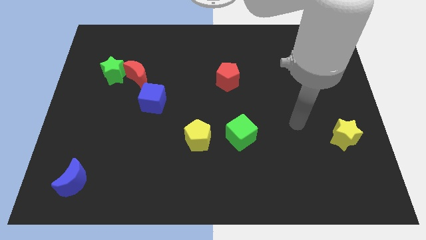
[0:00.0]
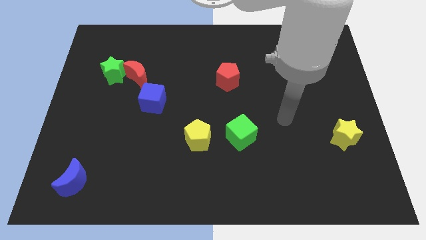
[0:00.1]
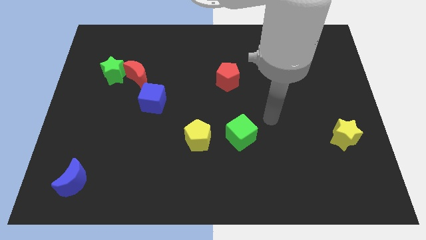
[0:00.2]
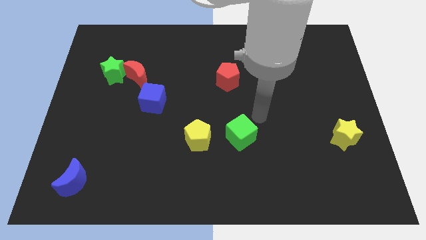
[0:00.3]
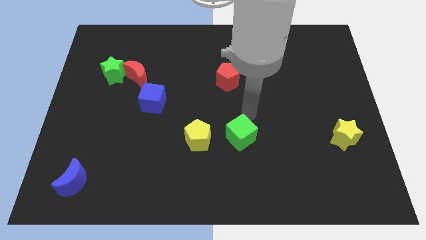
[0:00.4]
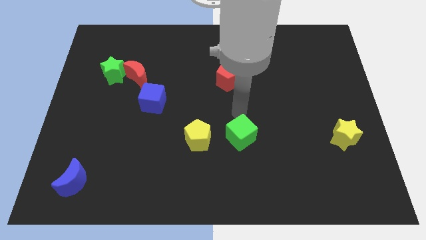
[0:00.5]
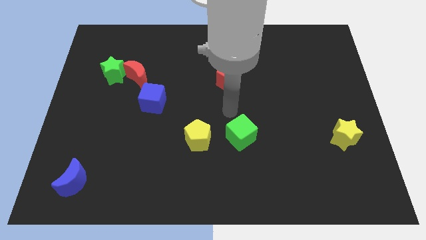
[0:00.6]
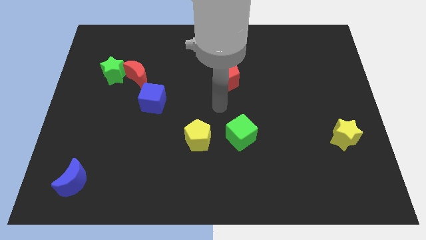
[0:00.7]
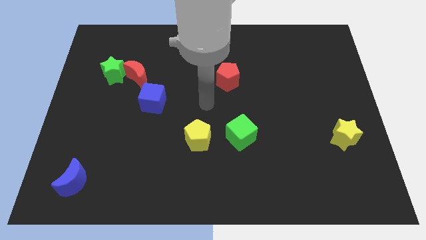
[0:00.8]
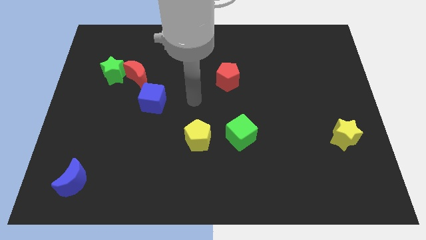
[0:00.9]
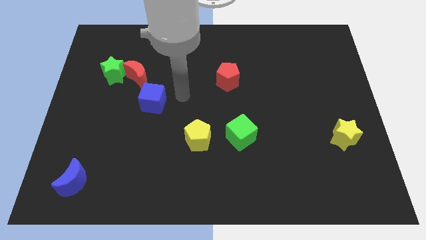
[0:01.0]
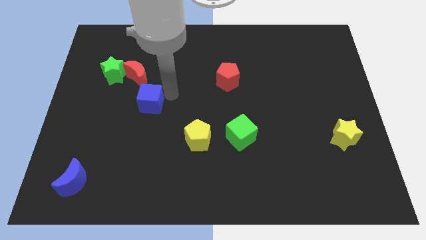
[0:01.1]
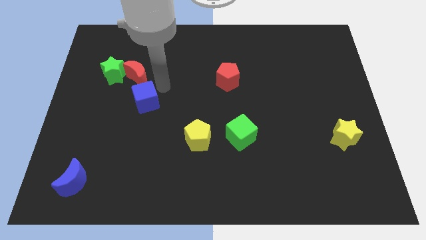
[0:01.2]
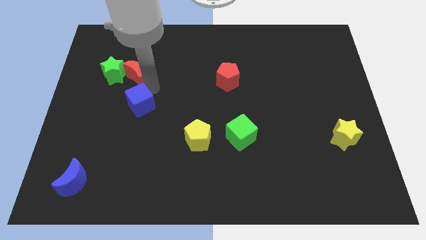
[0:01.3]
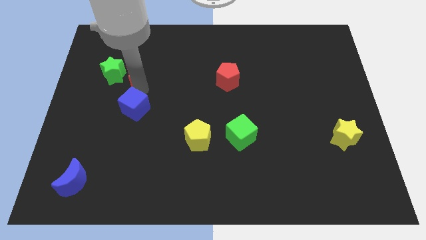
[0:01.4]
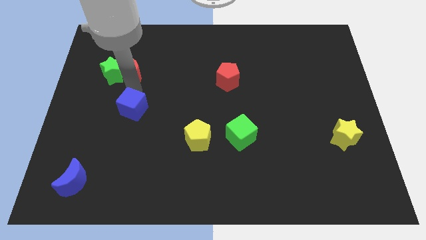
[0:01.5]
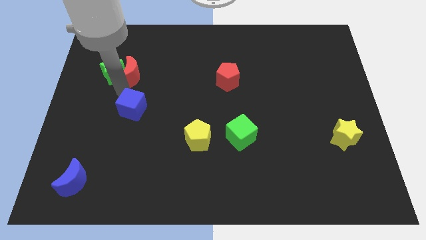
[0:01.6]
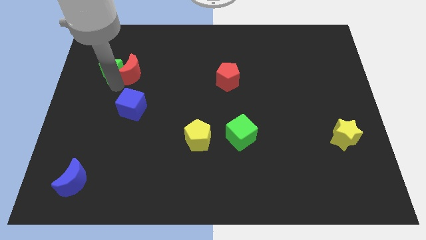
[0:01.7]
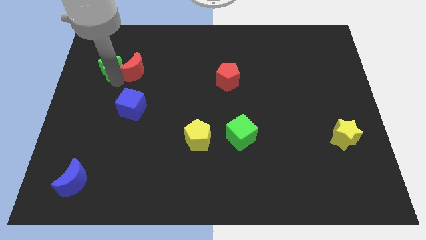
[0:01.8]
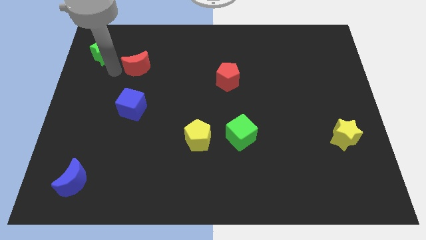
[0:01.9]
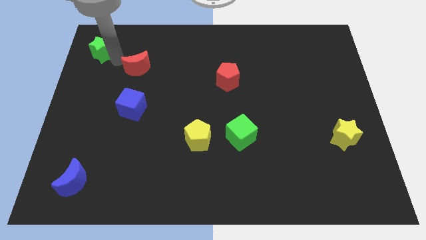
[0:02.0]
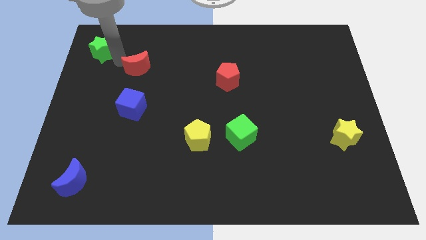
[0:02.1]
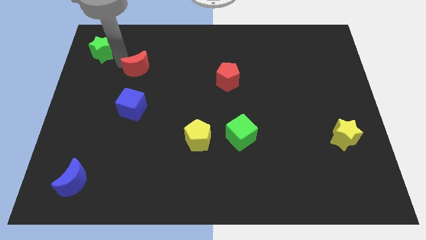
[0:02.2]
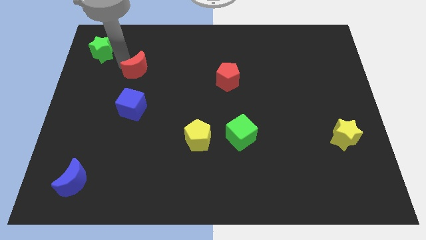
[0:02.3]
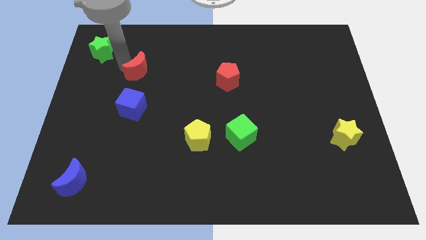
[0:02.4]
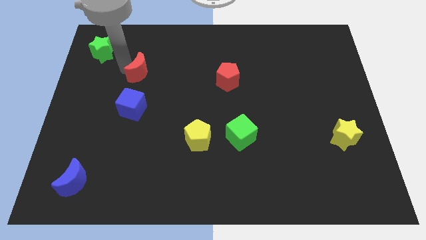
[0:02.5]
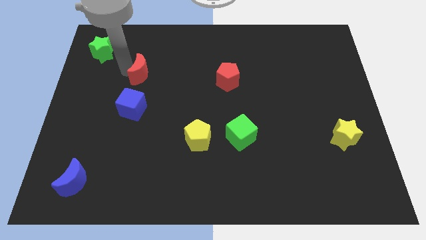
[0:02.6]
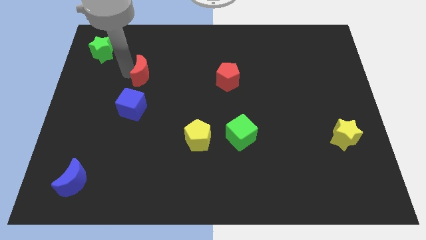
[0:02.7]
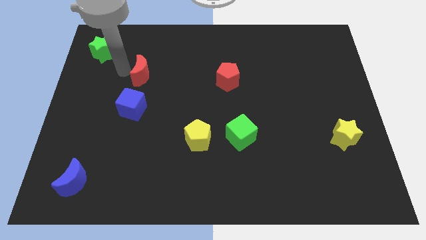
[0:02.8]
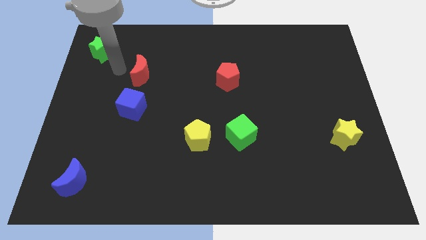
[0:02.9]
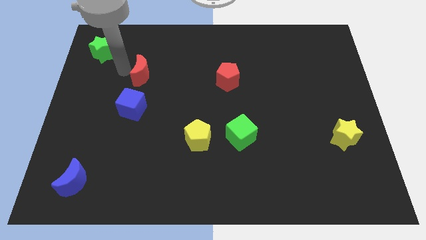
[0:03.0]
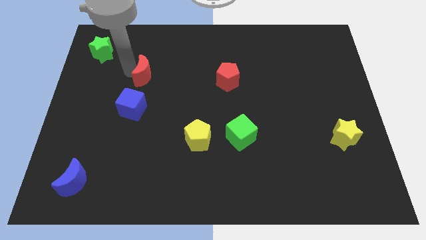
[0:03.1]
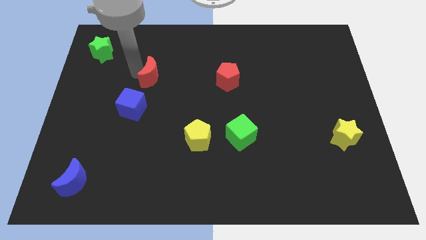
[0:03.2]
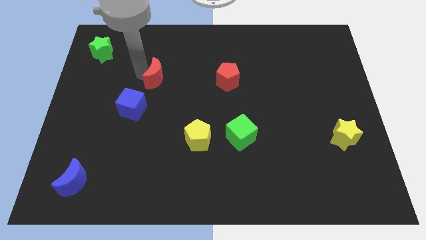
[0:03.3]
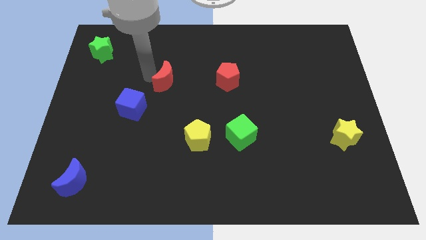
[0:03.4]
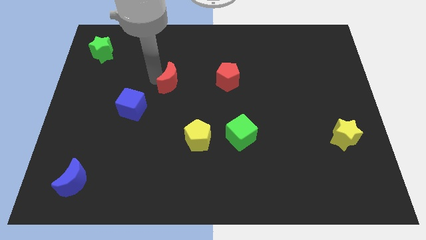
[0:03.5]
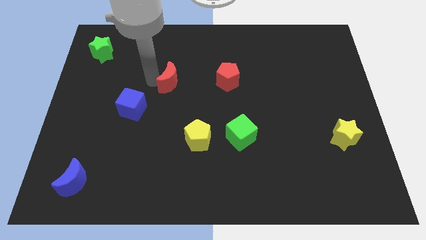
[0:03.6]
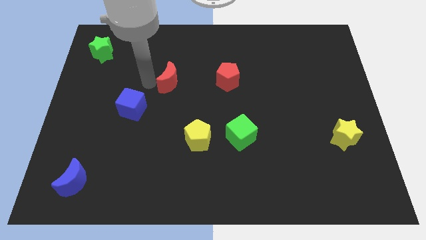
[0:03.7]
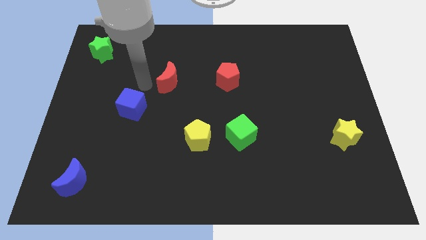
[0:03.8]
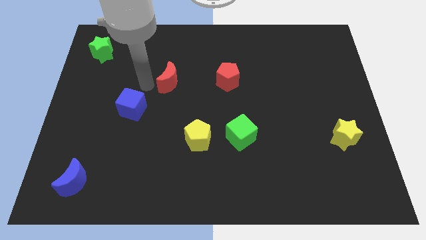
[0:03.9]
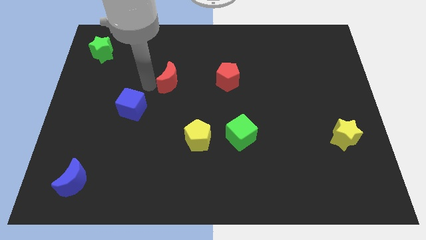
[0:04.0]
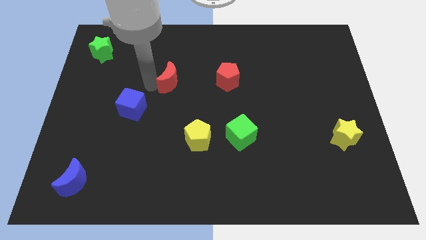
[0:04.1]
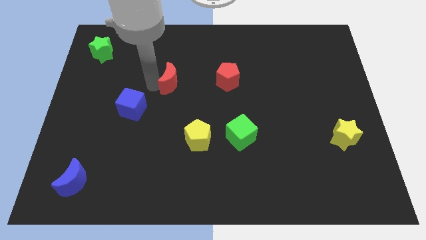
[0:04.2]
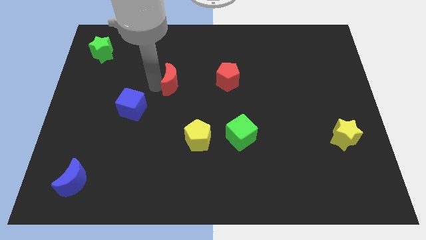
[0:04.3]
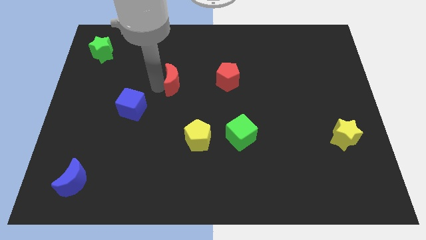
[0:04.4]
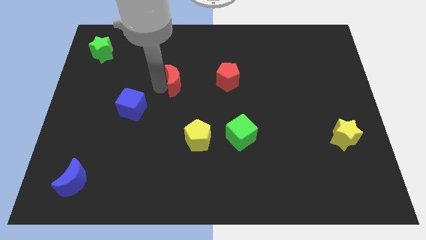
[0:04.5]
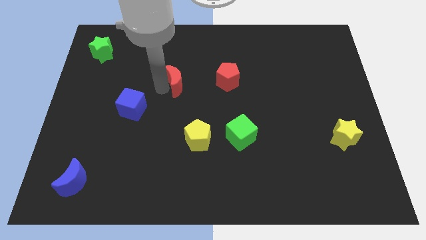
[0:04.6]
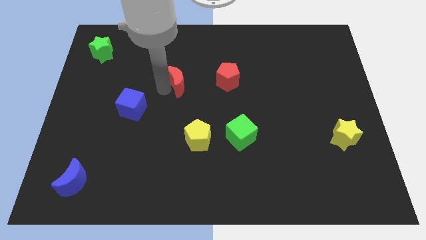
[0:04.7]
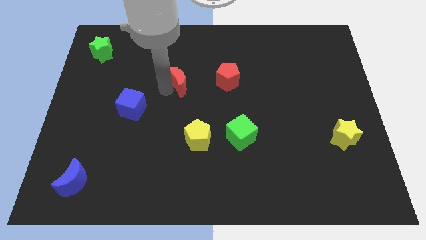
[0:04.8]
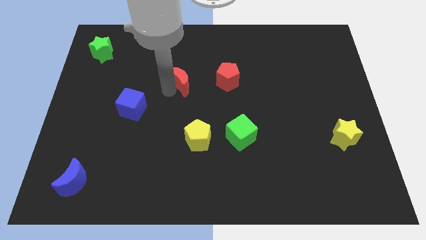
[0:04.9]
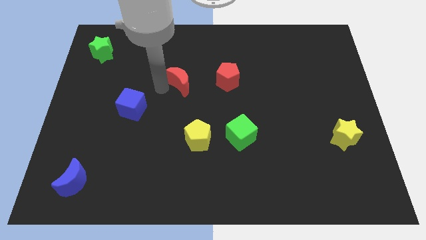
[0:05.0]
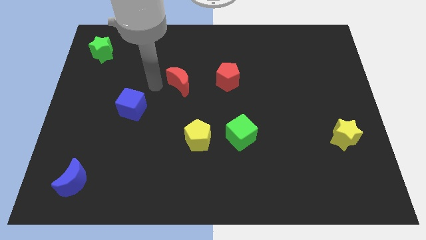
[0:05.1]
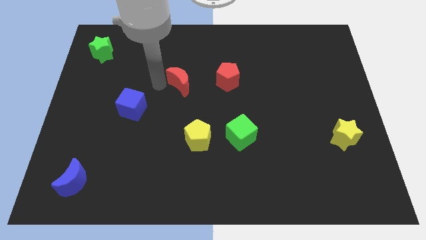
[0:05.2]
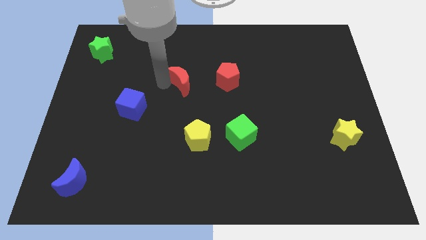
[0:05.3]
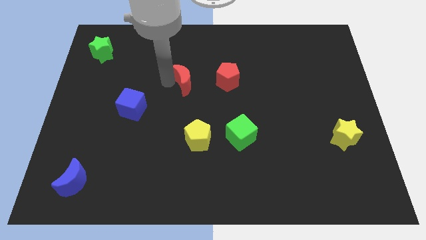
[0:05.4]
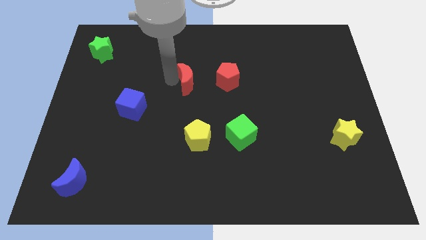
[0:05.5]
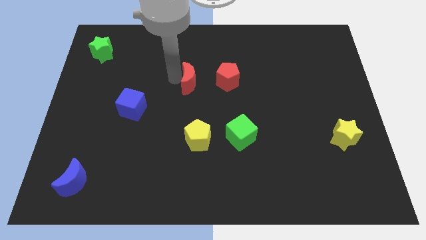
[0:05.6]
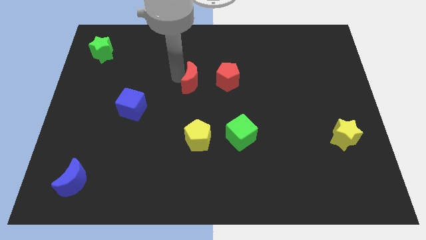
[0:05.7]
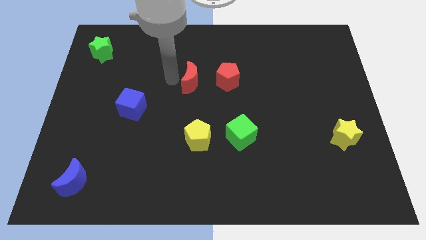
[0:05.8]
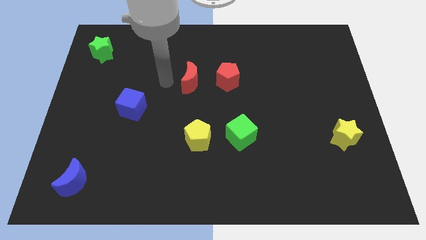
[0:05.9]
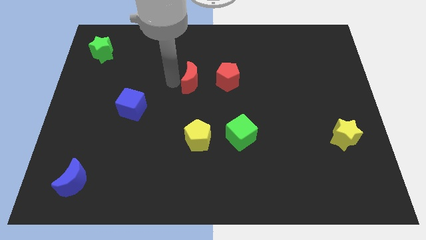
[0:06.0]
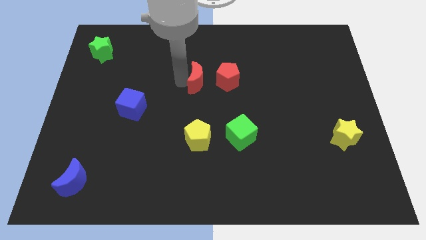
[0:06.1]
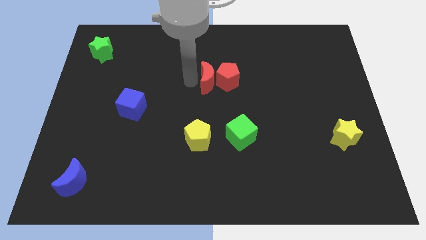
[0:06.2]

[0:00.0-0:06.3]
move the red moon next to the red pentagon

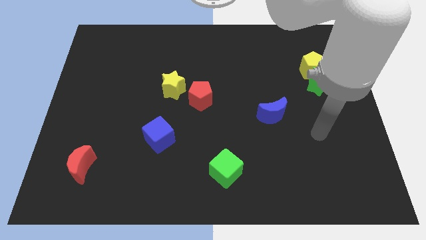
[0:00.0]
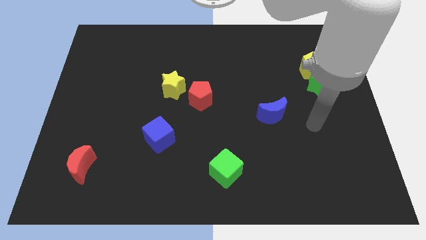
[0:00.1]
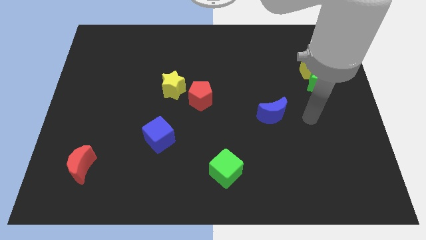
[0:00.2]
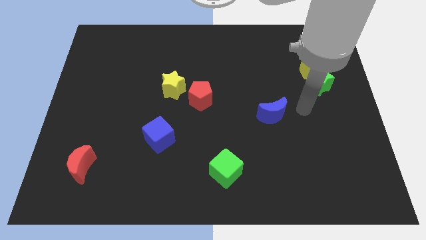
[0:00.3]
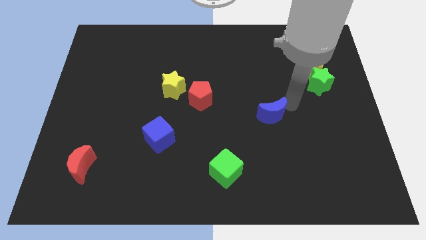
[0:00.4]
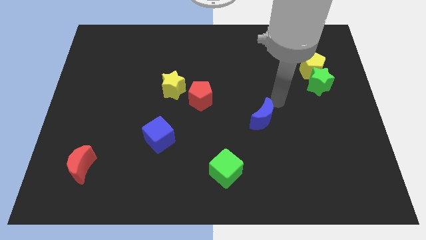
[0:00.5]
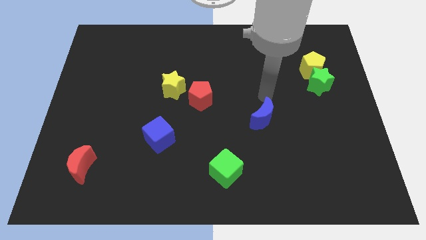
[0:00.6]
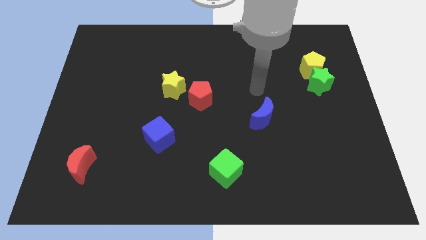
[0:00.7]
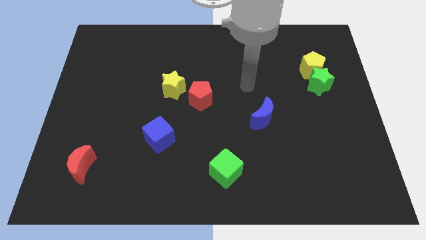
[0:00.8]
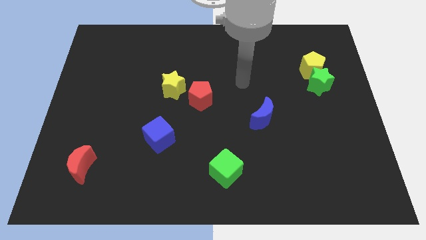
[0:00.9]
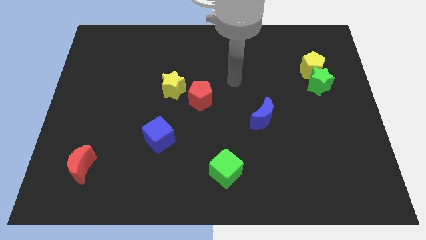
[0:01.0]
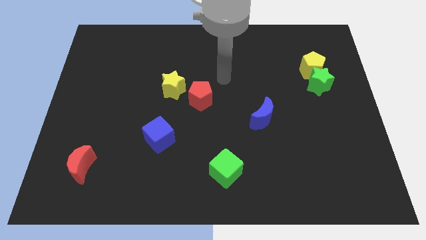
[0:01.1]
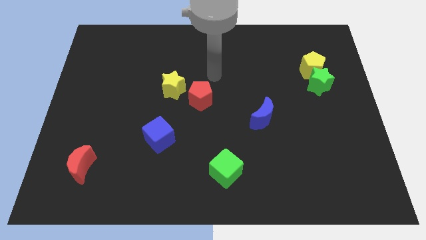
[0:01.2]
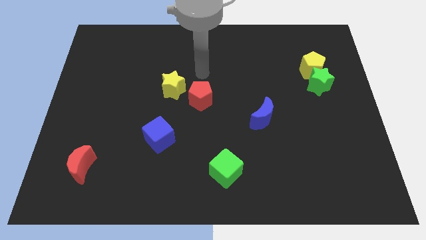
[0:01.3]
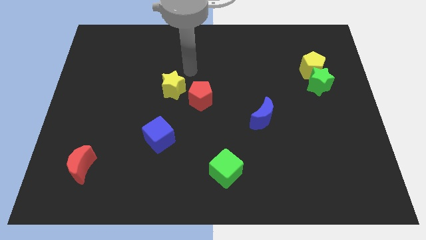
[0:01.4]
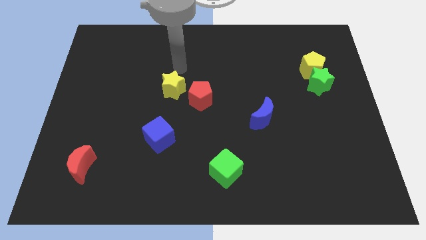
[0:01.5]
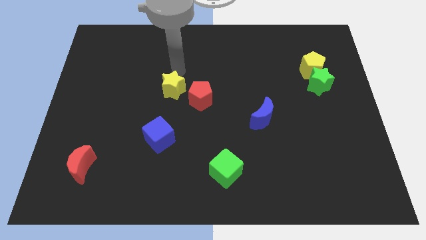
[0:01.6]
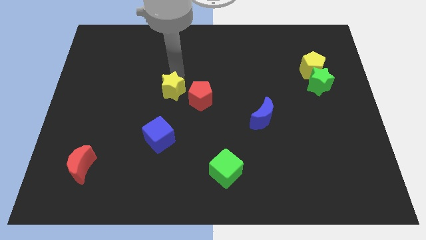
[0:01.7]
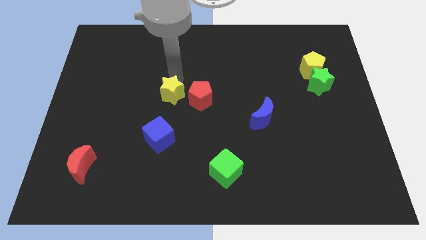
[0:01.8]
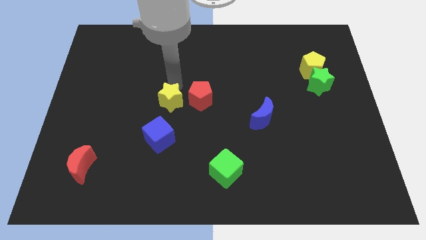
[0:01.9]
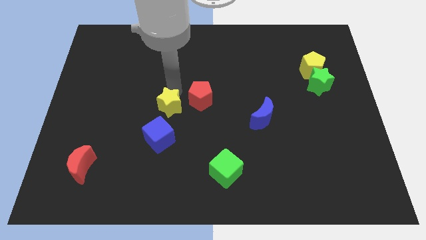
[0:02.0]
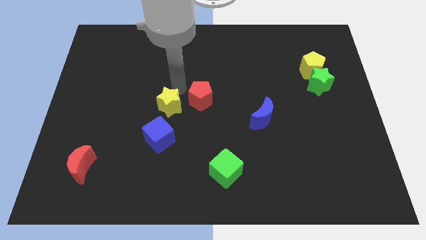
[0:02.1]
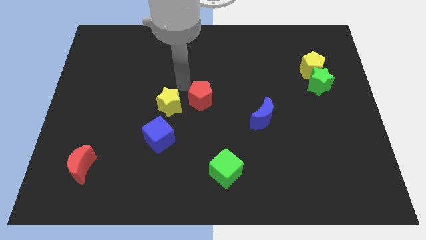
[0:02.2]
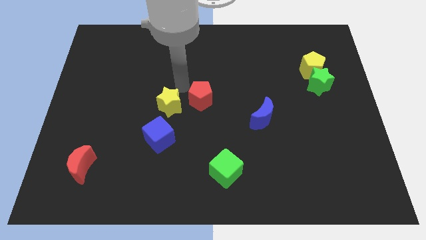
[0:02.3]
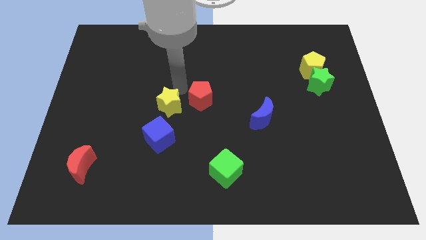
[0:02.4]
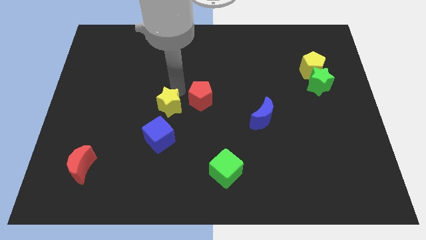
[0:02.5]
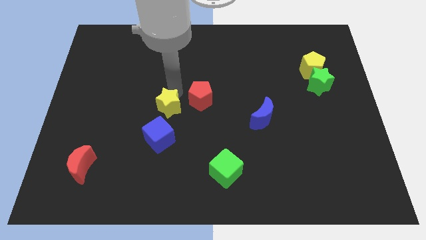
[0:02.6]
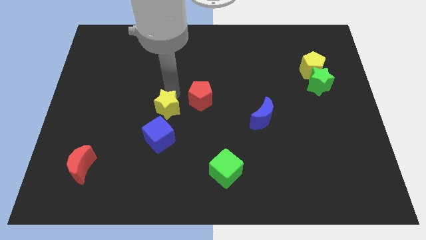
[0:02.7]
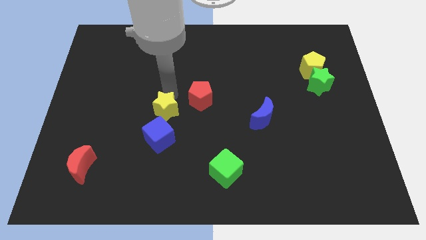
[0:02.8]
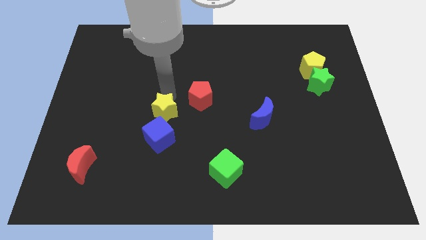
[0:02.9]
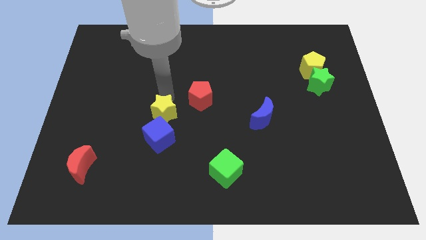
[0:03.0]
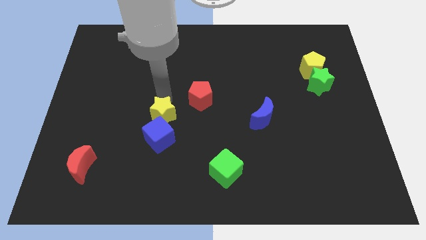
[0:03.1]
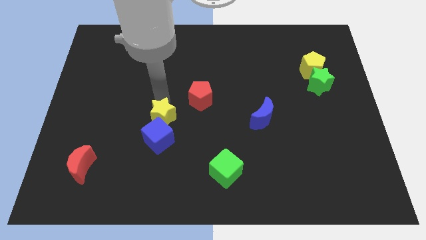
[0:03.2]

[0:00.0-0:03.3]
put the yellow star towards the blue cube
